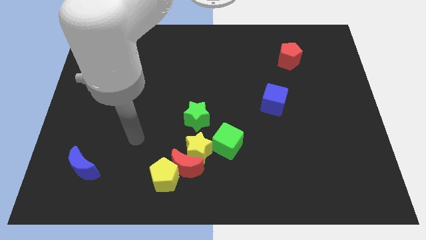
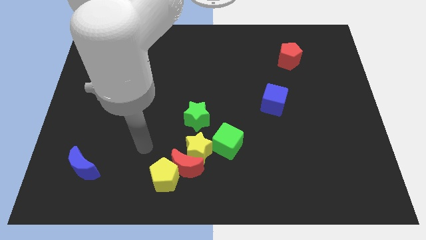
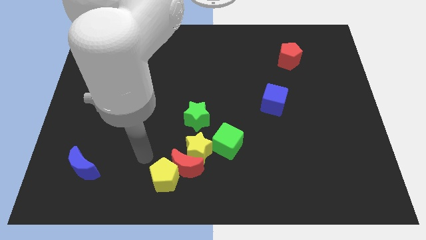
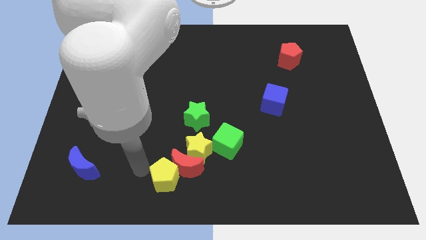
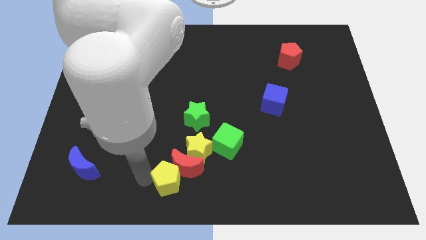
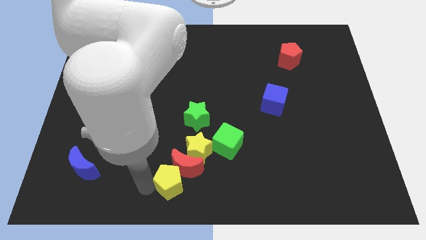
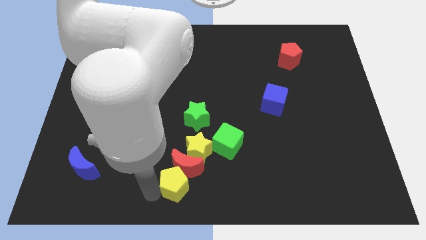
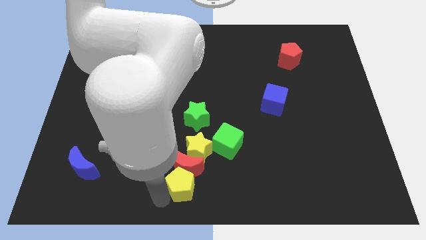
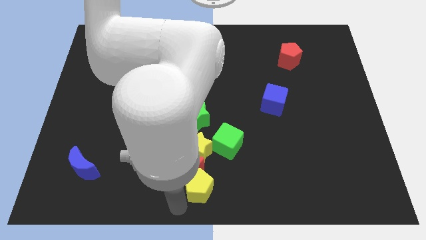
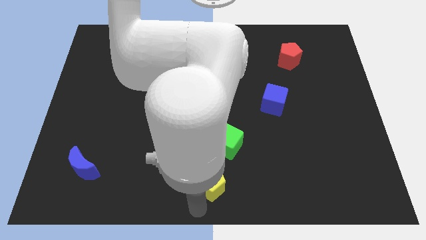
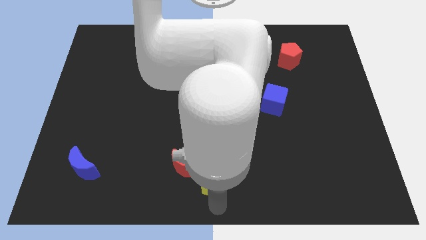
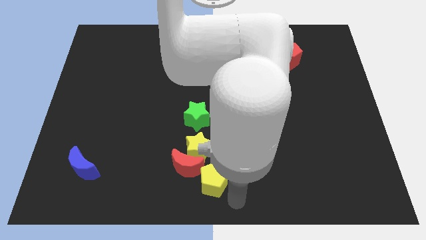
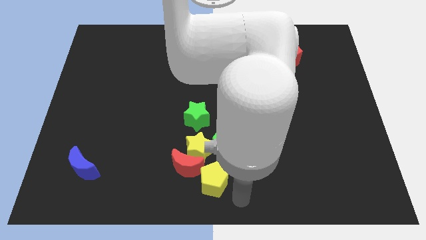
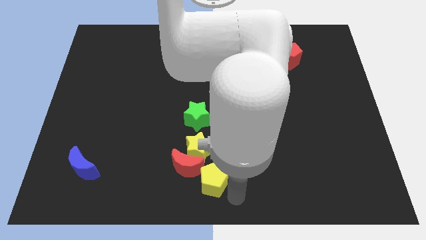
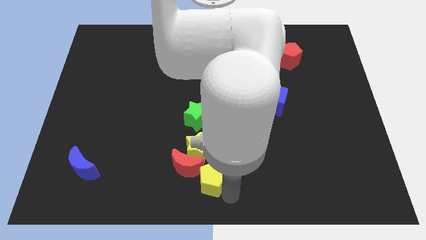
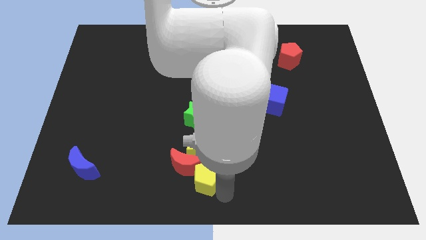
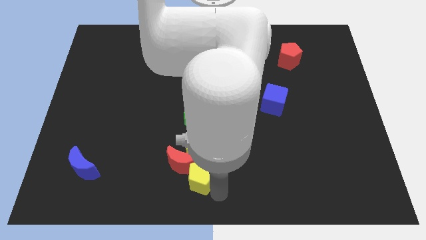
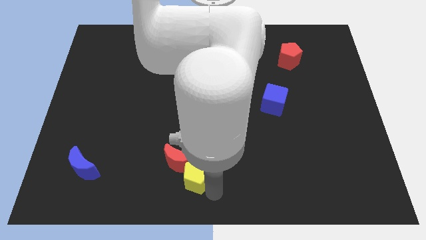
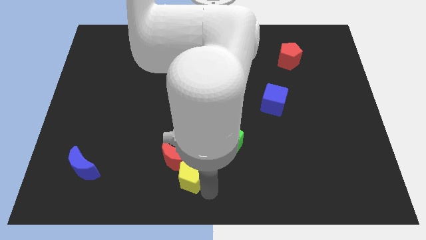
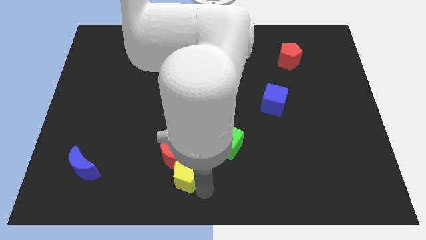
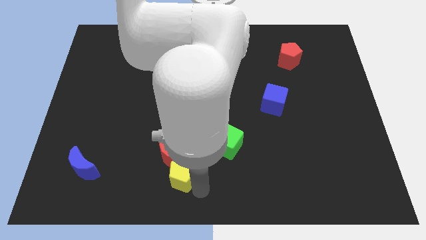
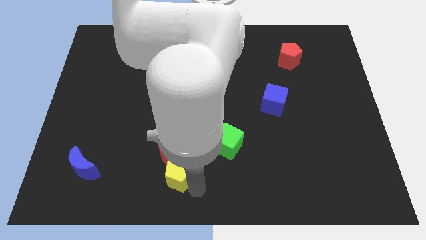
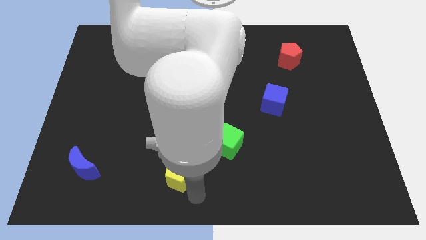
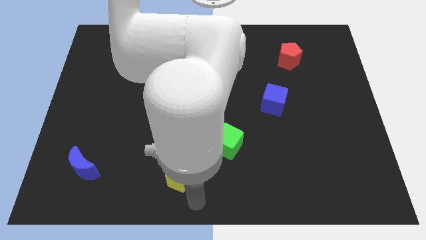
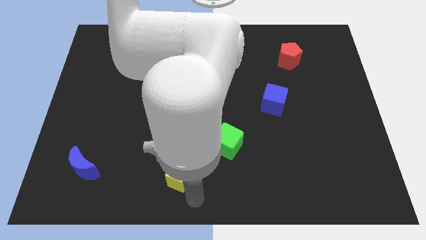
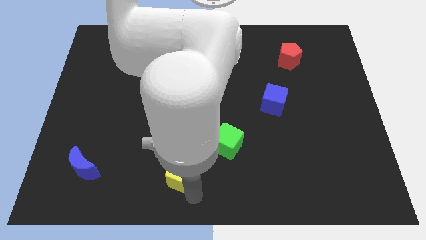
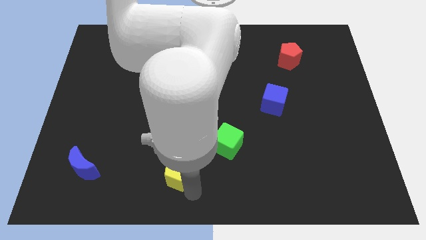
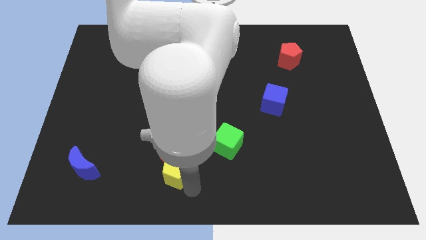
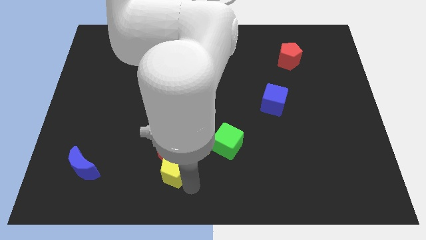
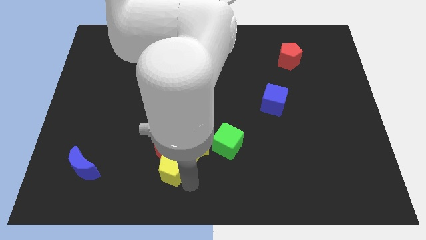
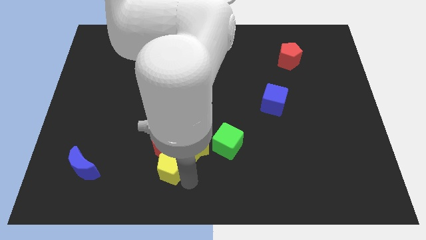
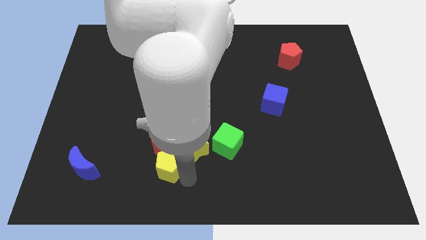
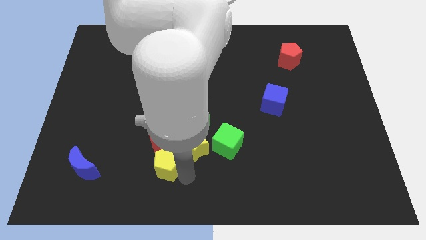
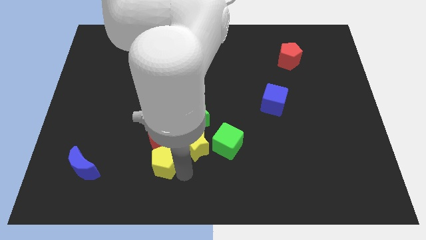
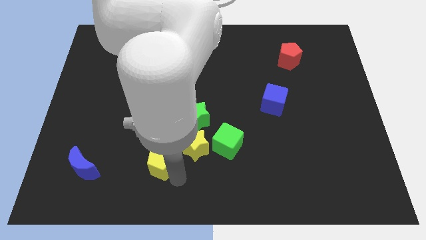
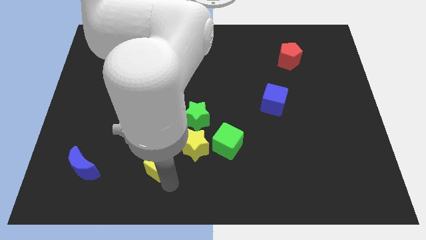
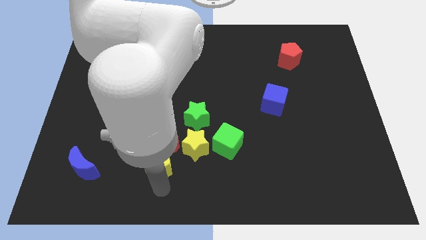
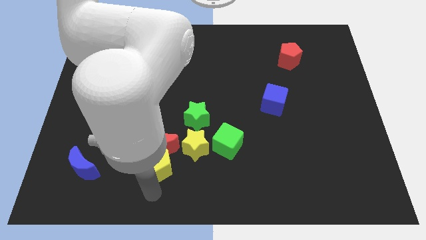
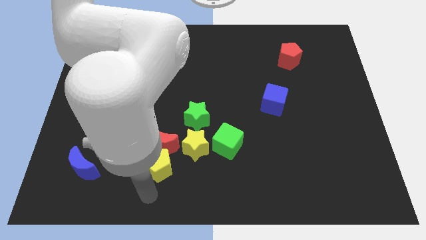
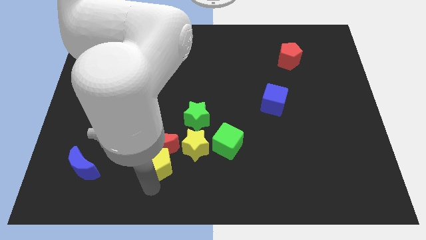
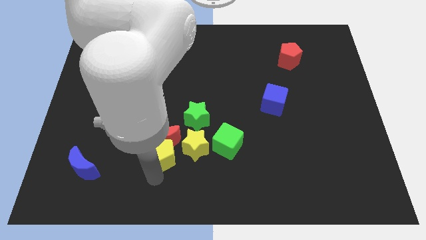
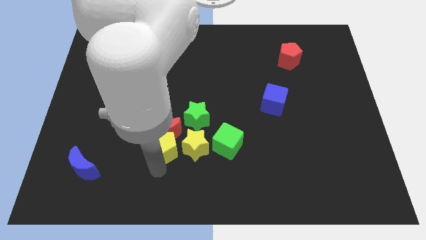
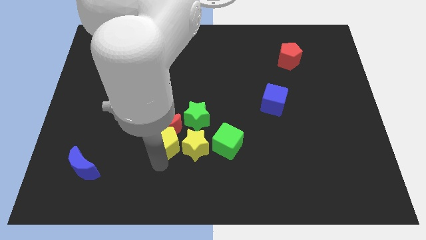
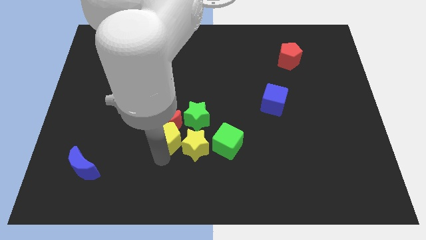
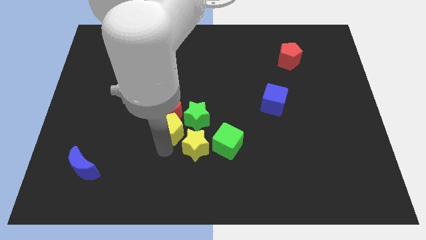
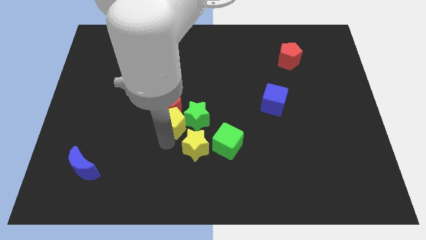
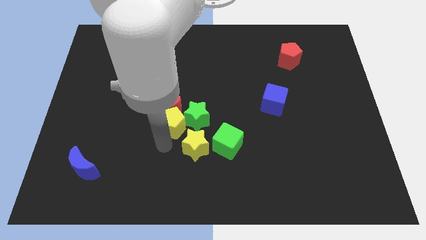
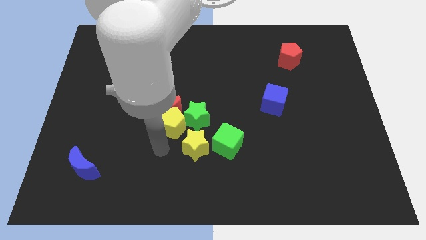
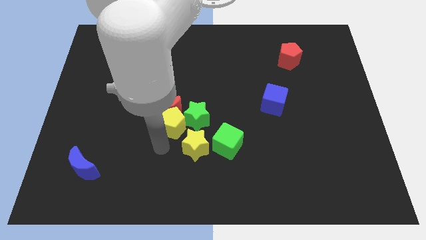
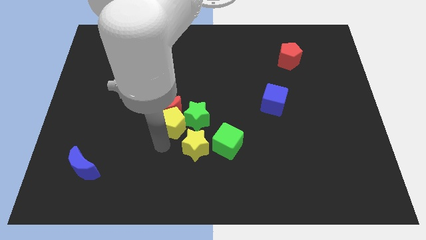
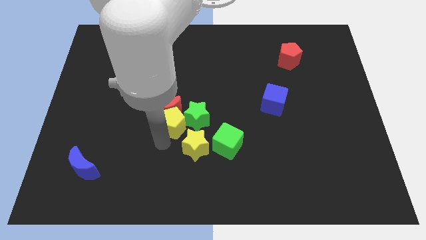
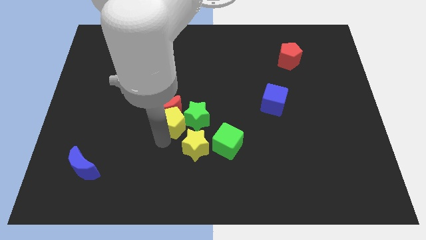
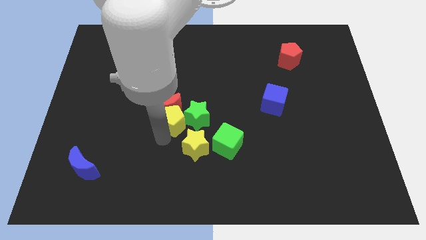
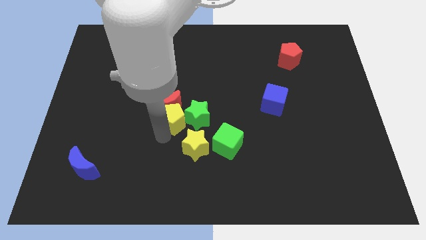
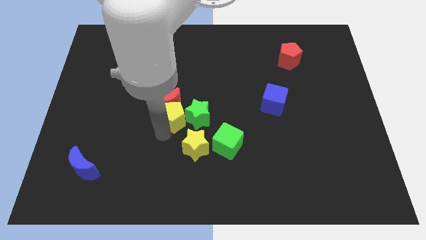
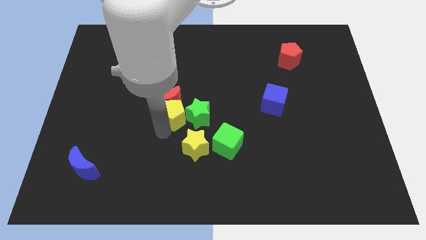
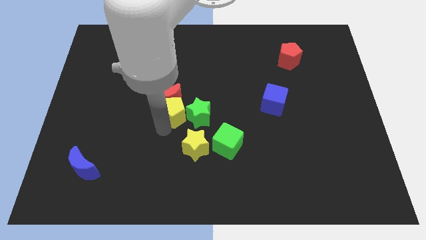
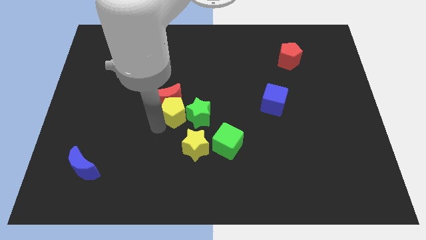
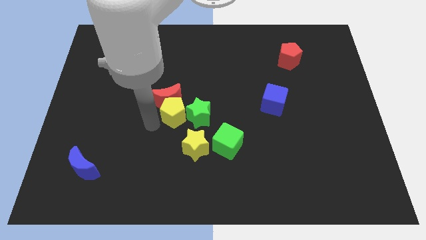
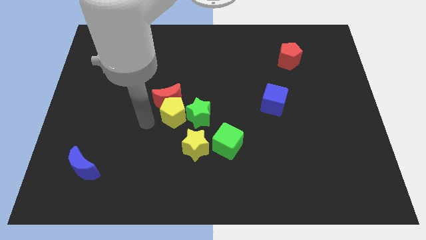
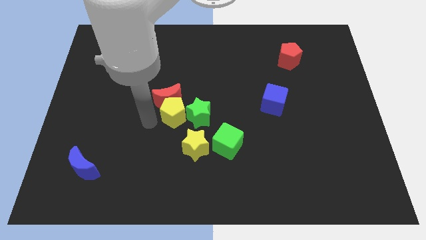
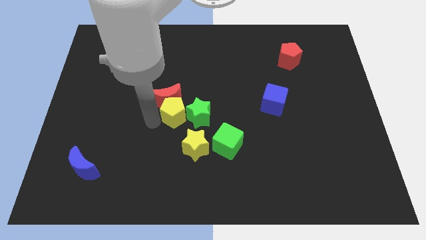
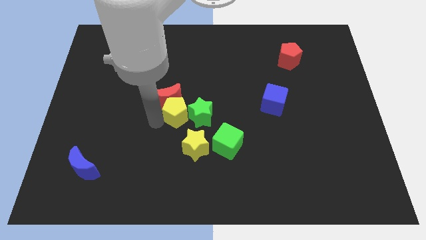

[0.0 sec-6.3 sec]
push the yellow pentagon to the top of the yellow star

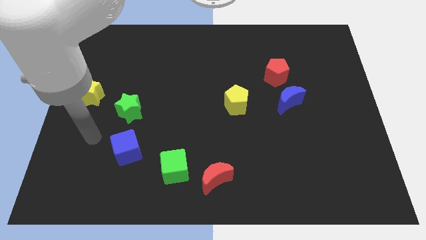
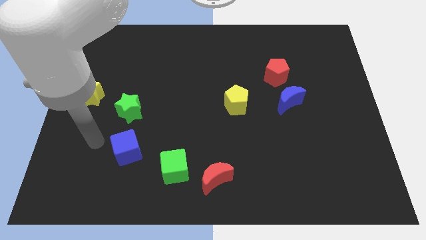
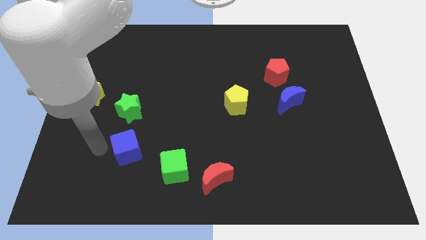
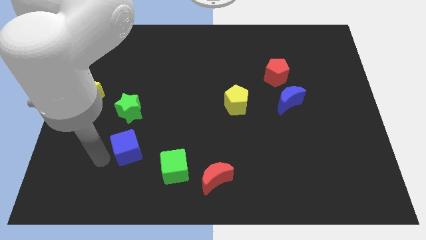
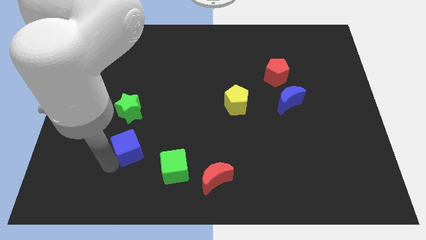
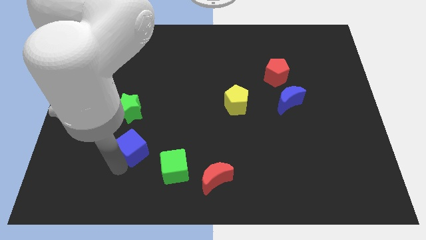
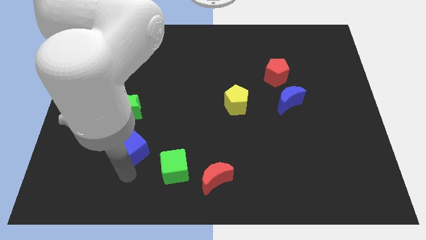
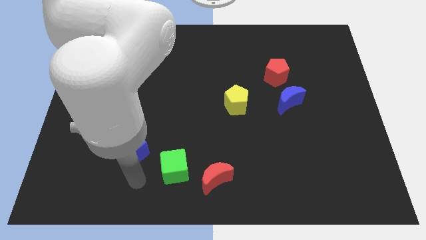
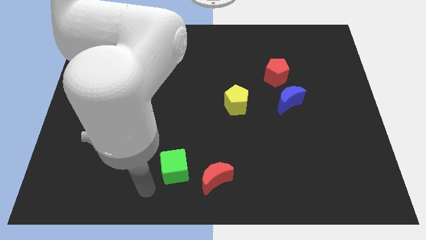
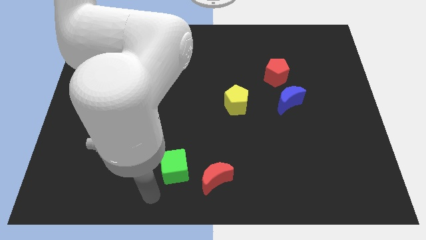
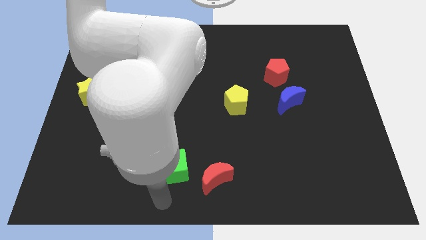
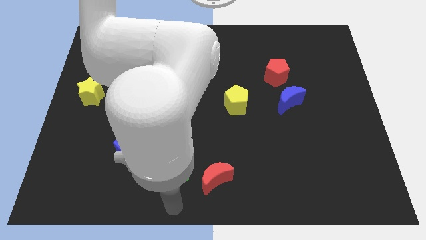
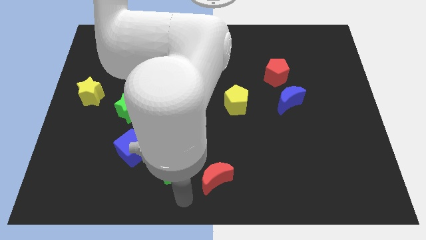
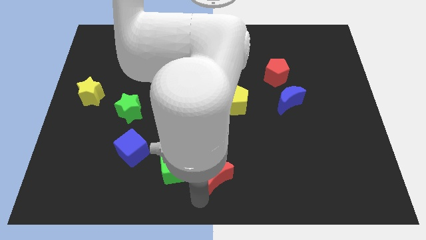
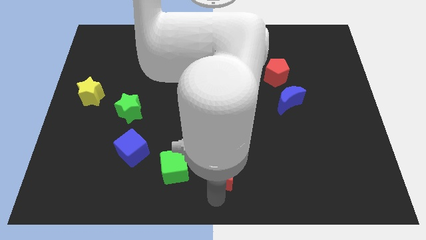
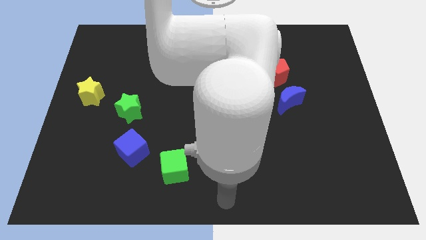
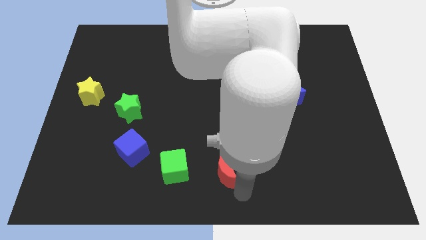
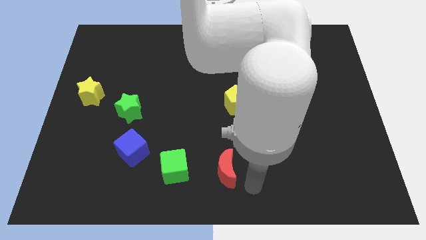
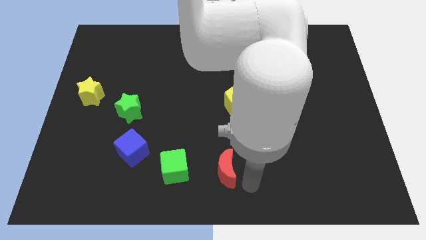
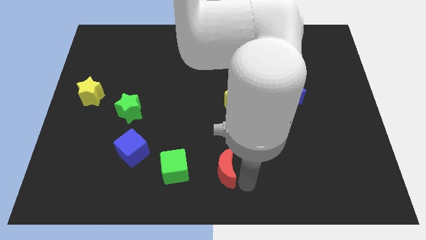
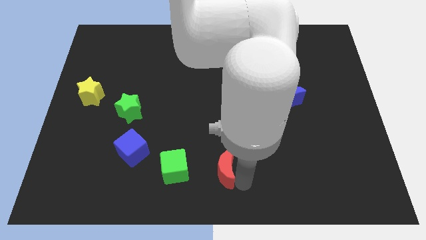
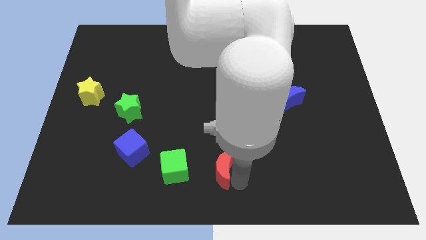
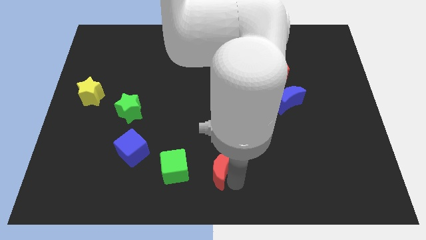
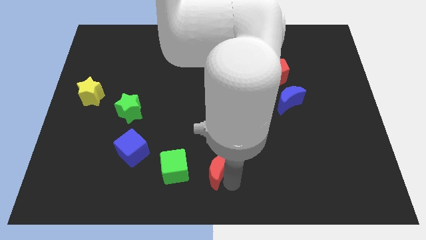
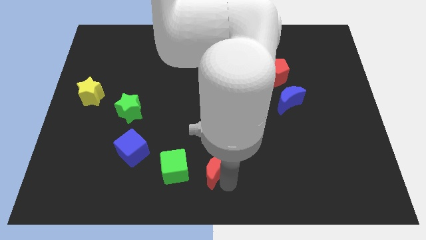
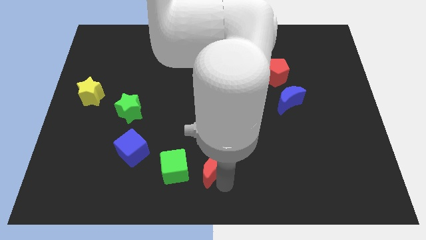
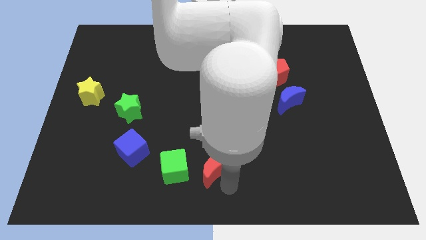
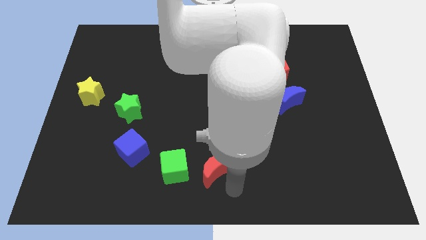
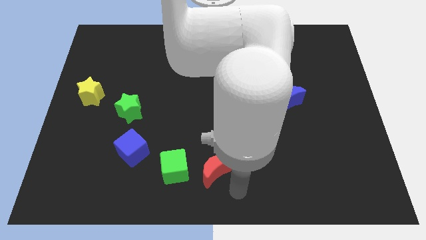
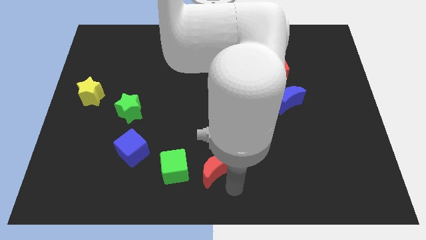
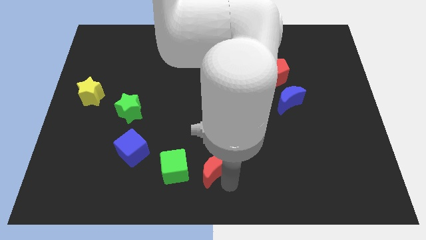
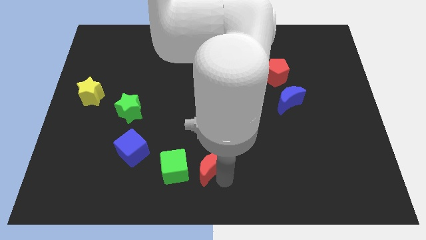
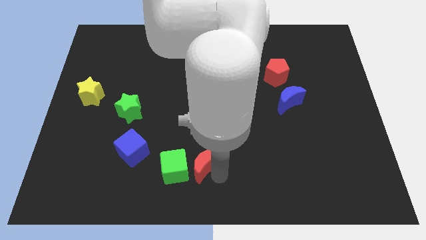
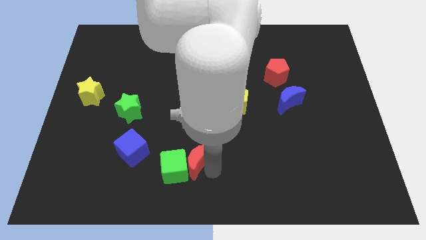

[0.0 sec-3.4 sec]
move the red moon to the right side of the blue cube
